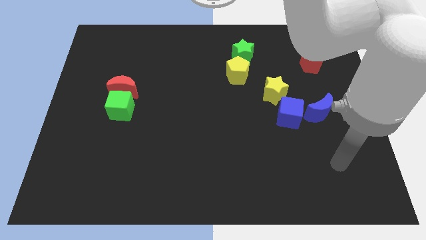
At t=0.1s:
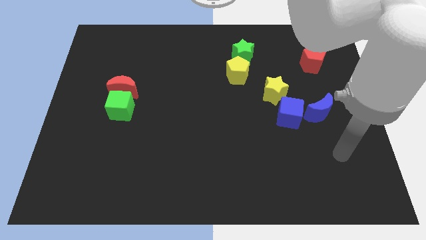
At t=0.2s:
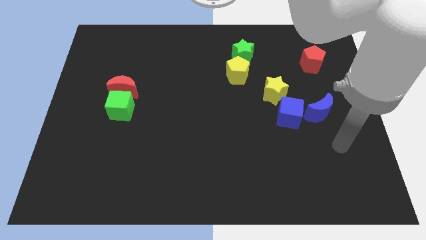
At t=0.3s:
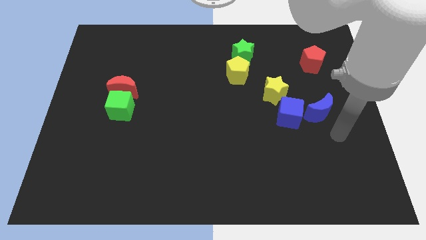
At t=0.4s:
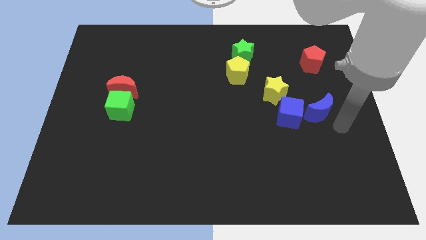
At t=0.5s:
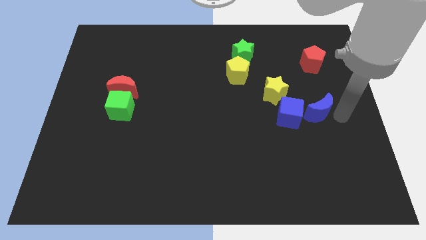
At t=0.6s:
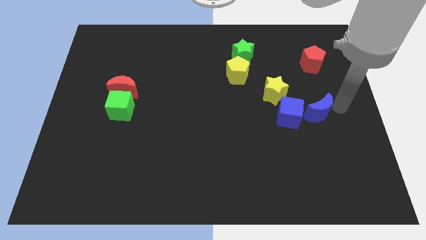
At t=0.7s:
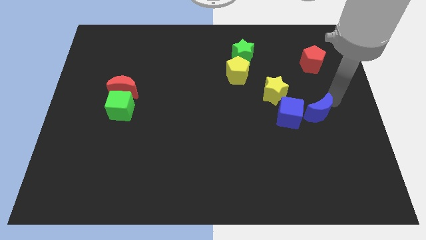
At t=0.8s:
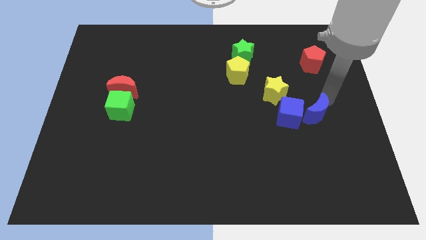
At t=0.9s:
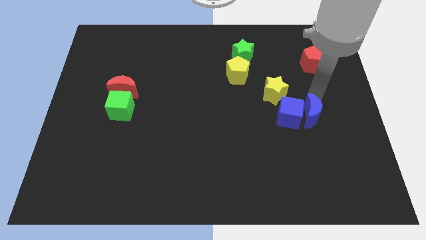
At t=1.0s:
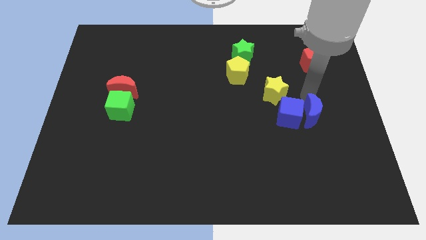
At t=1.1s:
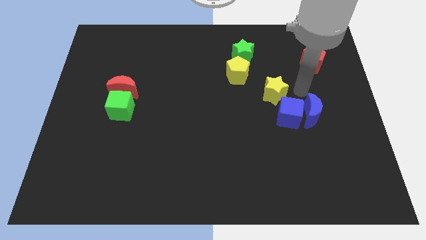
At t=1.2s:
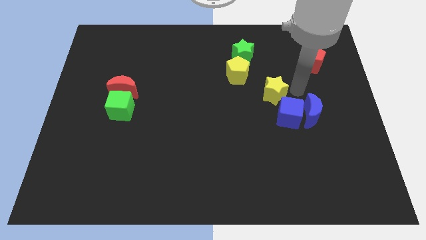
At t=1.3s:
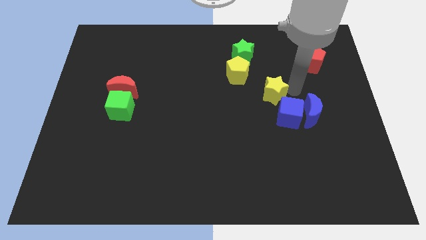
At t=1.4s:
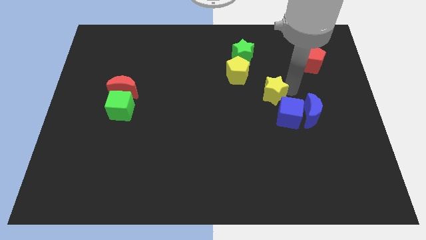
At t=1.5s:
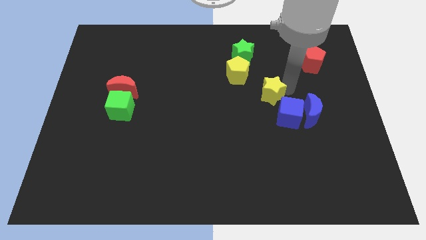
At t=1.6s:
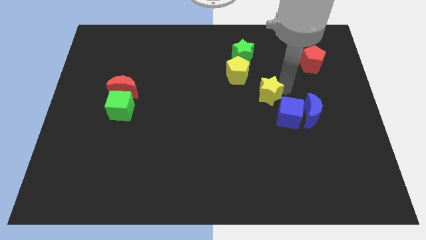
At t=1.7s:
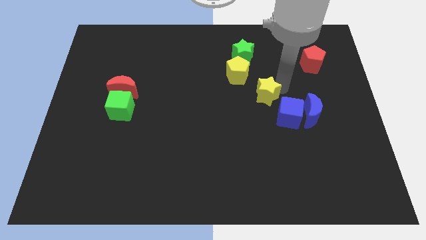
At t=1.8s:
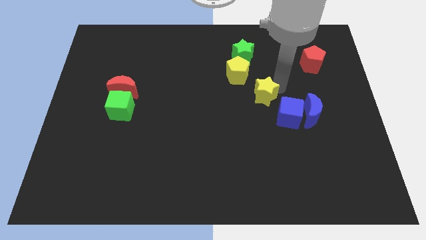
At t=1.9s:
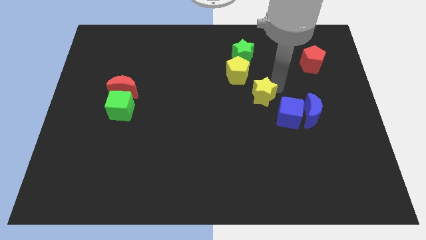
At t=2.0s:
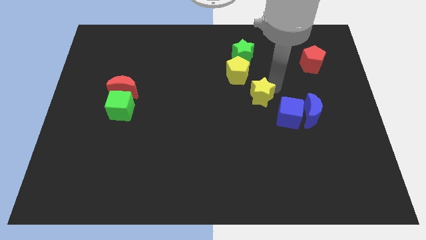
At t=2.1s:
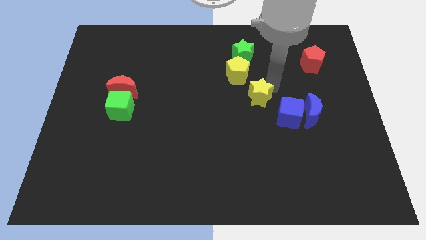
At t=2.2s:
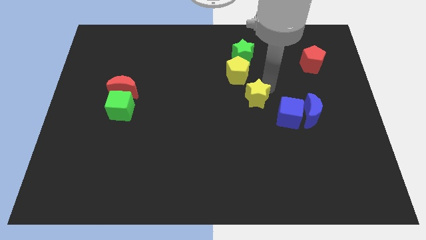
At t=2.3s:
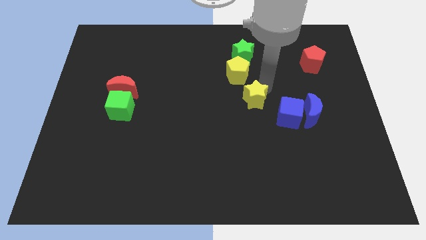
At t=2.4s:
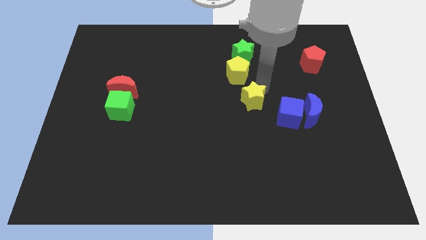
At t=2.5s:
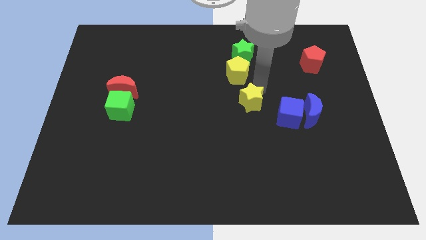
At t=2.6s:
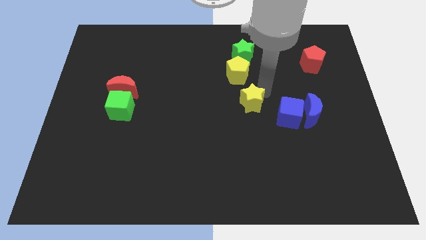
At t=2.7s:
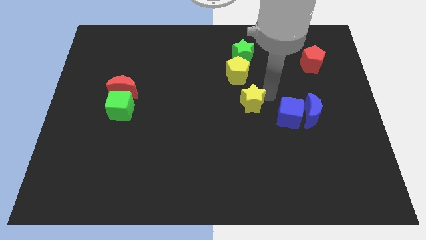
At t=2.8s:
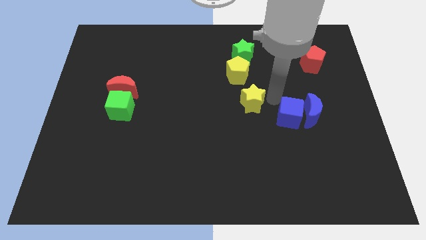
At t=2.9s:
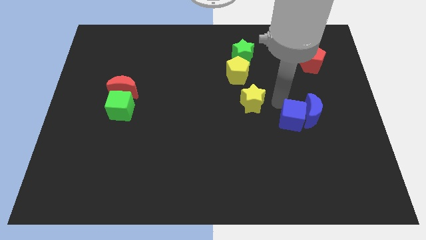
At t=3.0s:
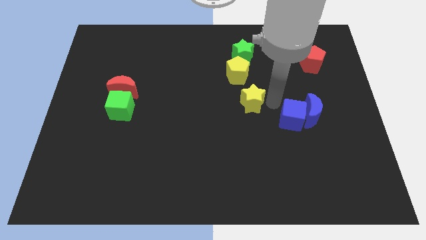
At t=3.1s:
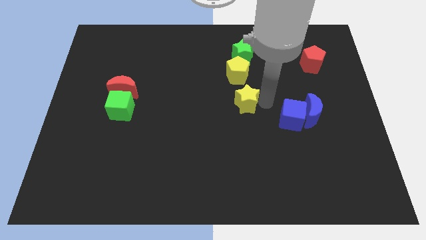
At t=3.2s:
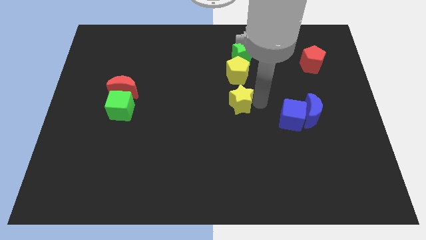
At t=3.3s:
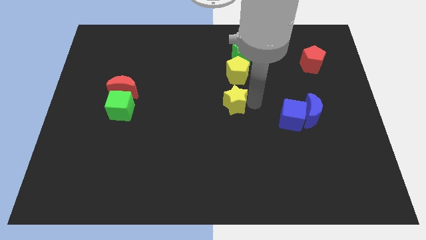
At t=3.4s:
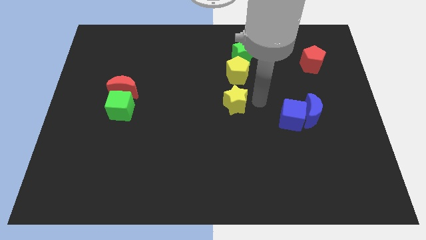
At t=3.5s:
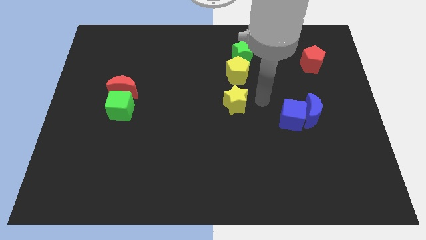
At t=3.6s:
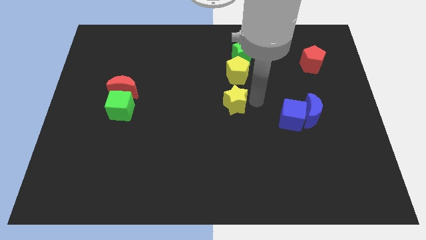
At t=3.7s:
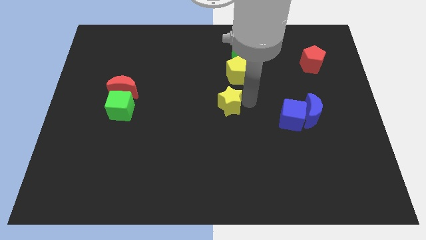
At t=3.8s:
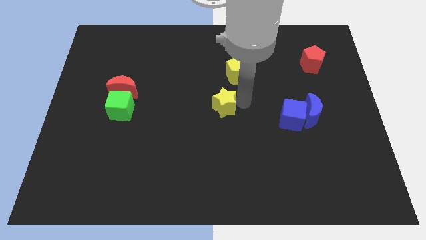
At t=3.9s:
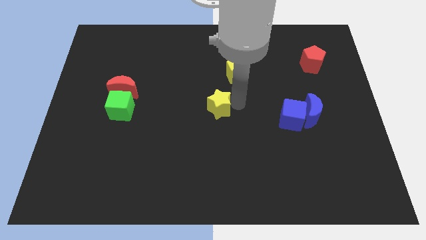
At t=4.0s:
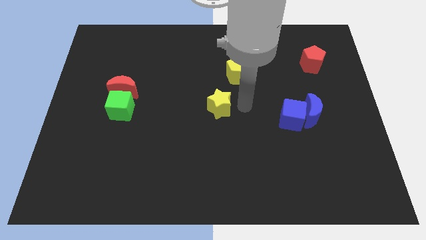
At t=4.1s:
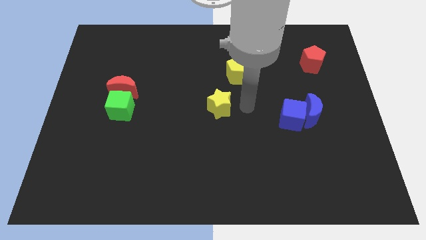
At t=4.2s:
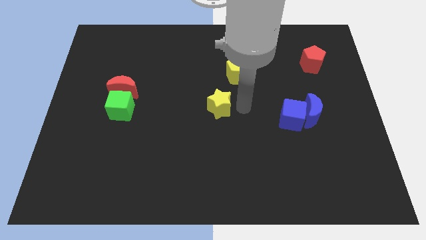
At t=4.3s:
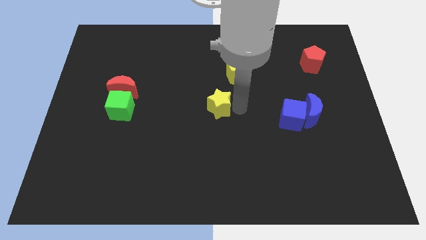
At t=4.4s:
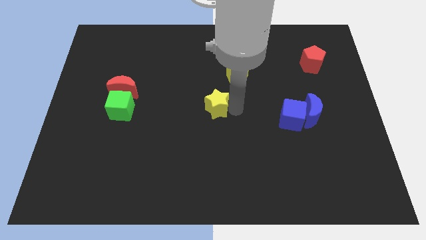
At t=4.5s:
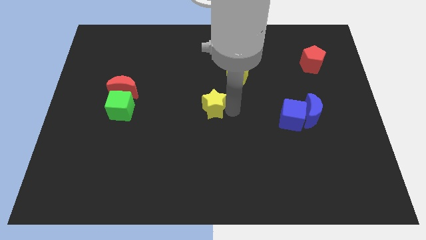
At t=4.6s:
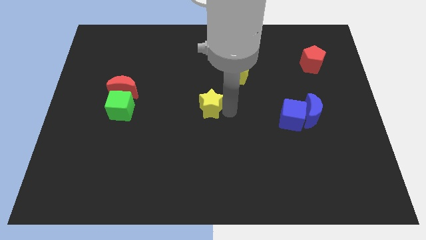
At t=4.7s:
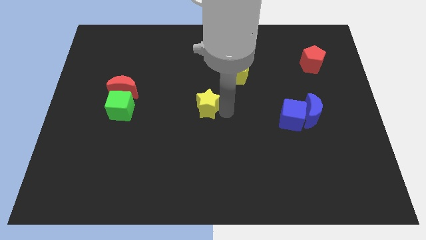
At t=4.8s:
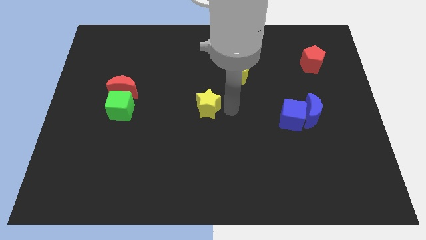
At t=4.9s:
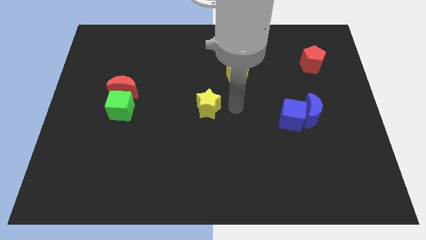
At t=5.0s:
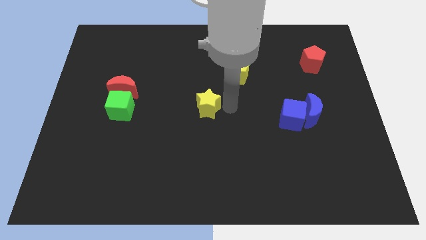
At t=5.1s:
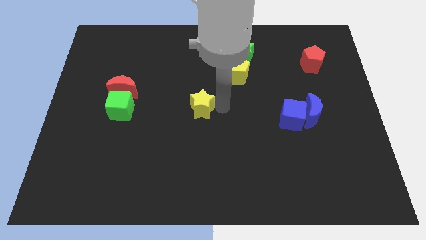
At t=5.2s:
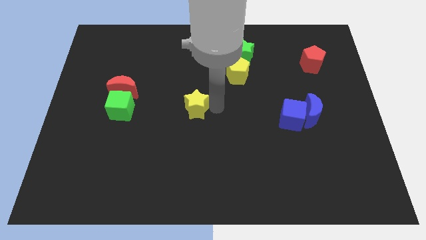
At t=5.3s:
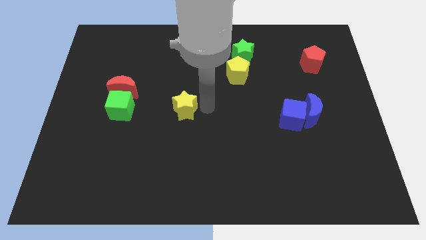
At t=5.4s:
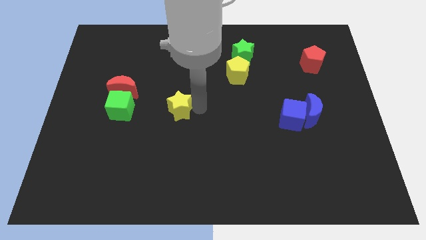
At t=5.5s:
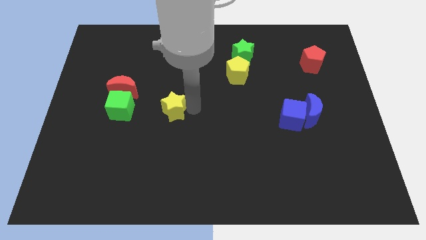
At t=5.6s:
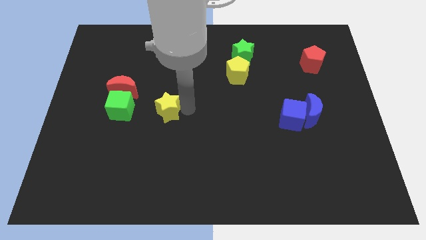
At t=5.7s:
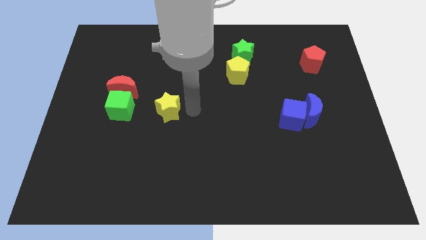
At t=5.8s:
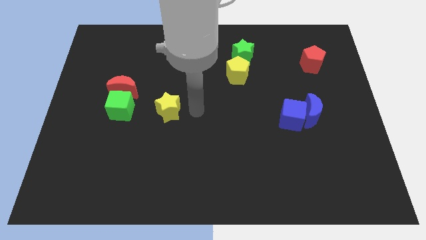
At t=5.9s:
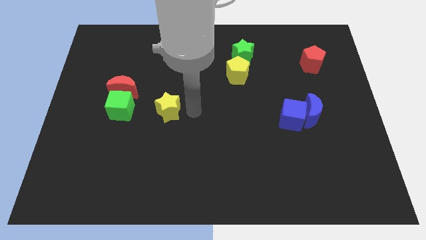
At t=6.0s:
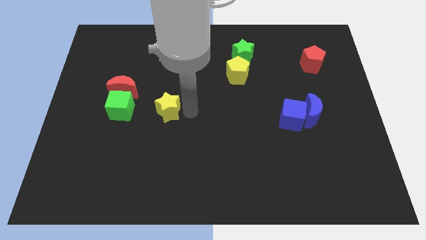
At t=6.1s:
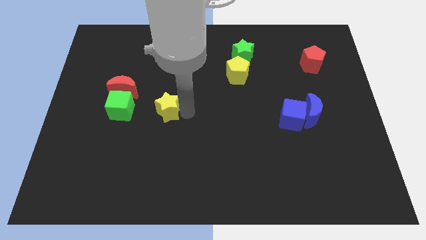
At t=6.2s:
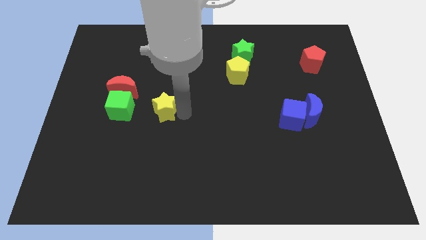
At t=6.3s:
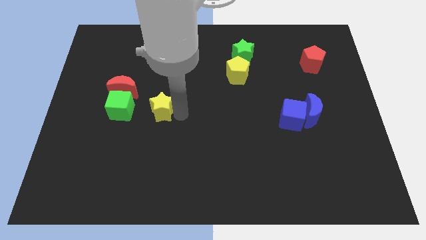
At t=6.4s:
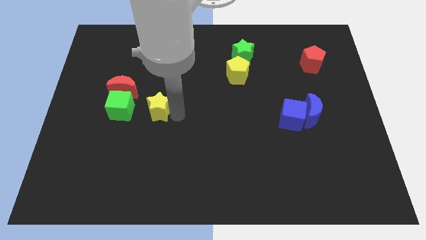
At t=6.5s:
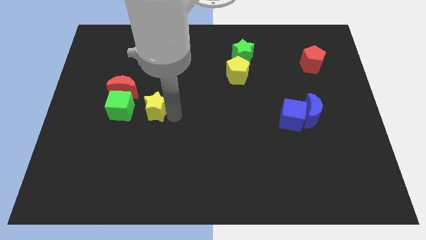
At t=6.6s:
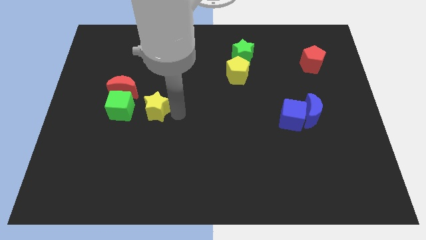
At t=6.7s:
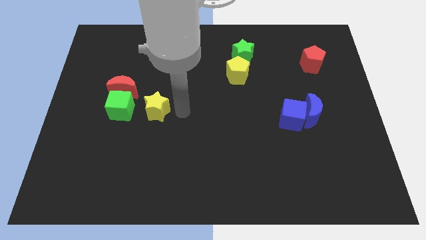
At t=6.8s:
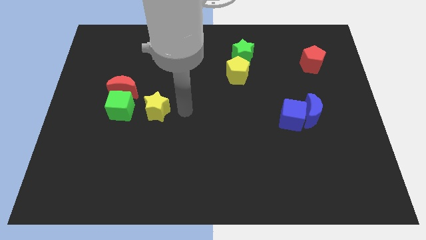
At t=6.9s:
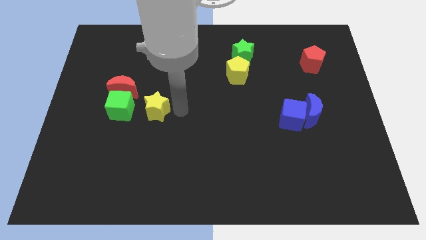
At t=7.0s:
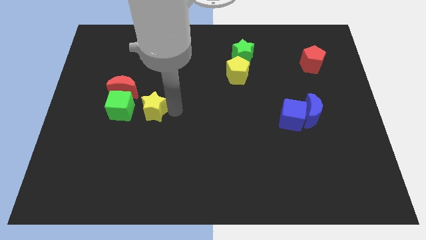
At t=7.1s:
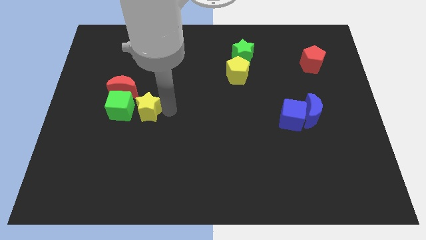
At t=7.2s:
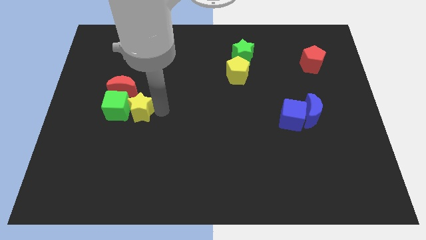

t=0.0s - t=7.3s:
move the yellow star next to the green cube
